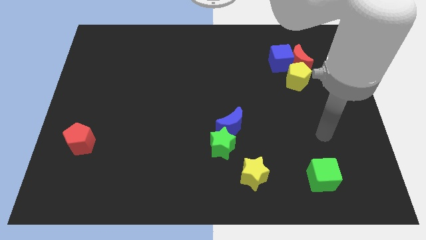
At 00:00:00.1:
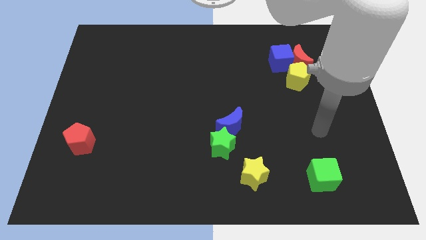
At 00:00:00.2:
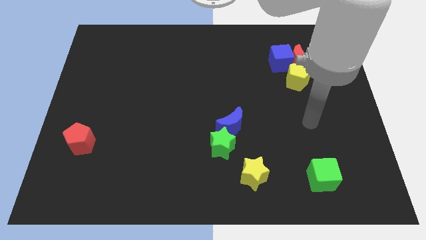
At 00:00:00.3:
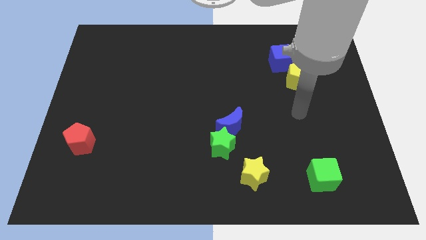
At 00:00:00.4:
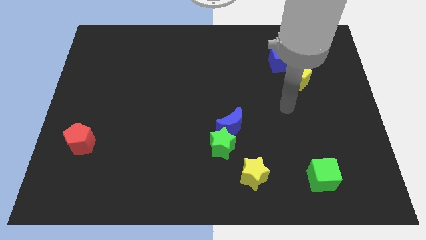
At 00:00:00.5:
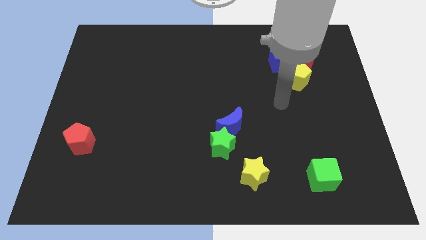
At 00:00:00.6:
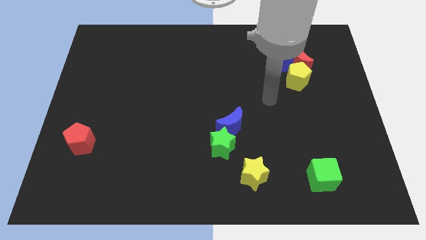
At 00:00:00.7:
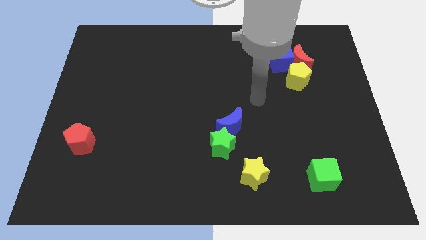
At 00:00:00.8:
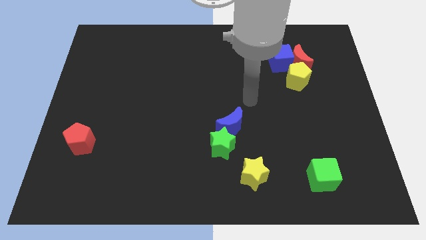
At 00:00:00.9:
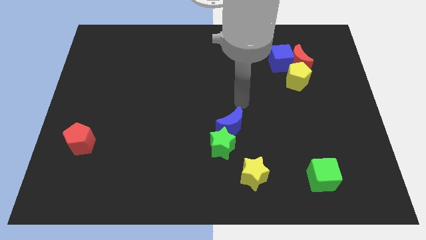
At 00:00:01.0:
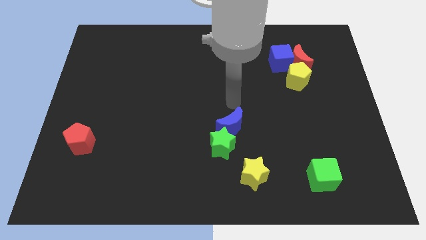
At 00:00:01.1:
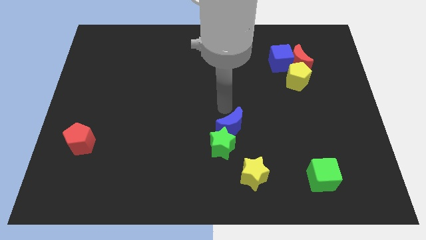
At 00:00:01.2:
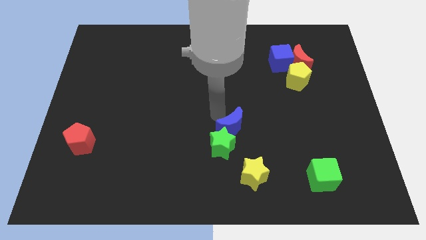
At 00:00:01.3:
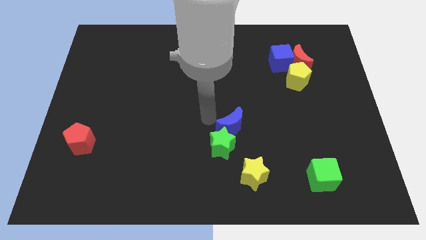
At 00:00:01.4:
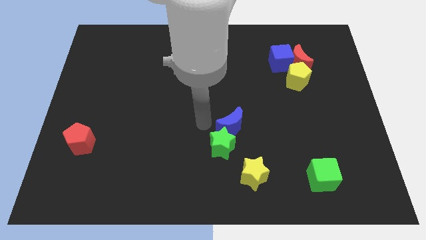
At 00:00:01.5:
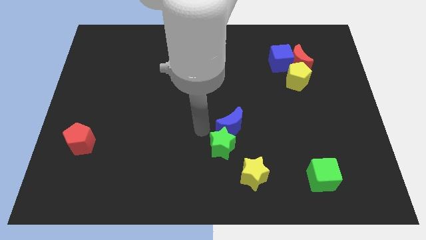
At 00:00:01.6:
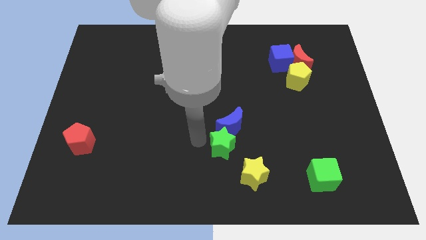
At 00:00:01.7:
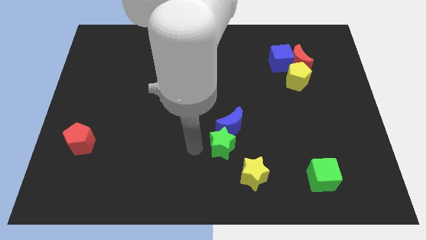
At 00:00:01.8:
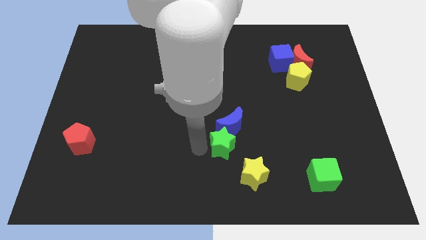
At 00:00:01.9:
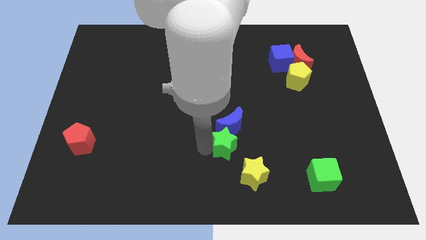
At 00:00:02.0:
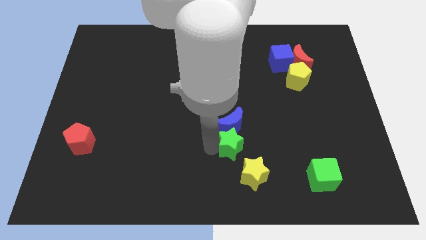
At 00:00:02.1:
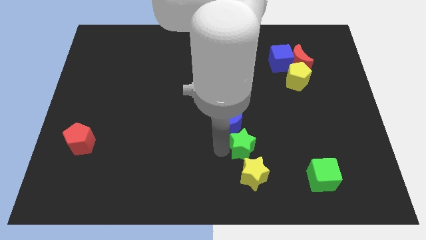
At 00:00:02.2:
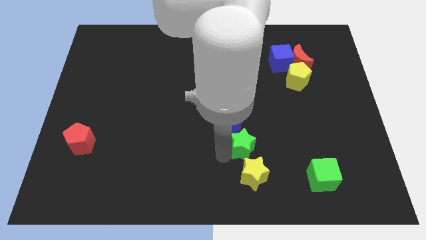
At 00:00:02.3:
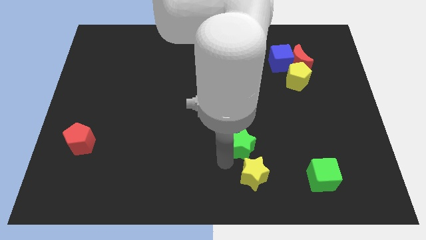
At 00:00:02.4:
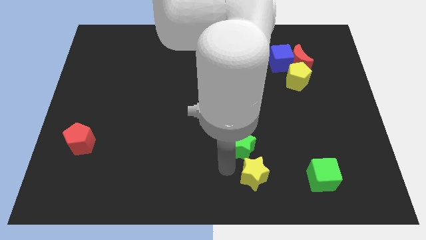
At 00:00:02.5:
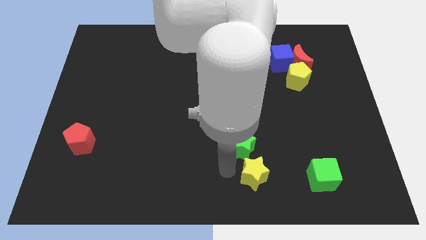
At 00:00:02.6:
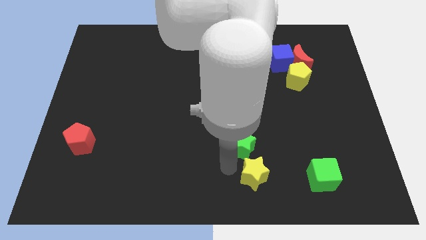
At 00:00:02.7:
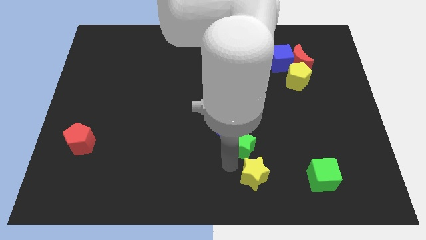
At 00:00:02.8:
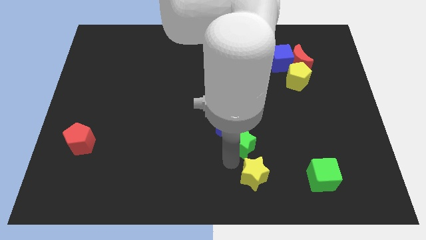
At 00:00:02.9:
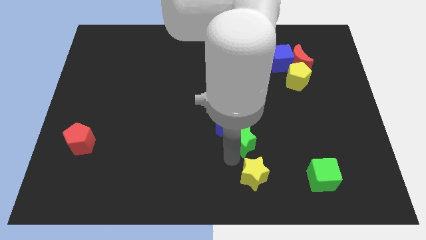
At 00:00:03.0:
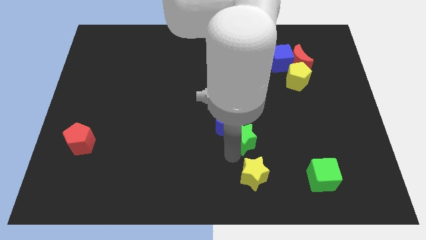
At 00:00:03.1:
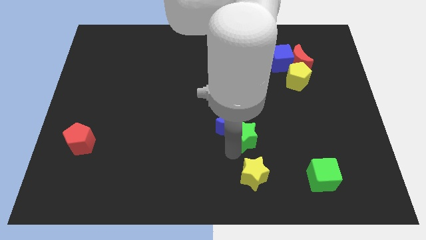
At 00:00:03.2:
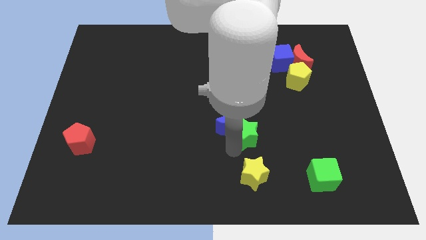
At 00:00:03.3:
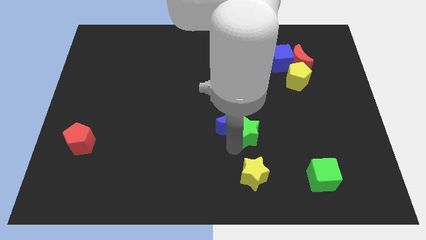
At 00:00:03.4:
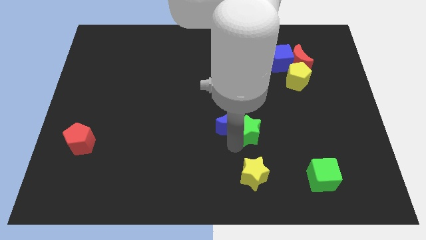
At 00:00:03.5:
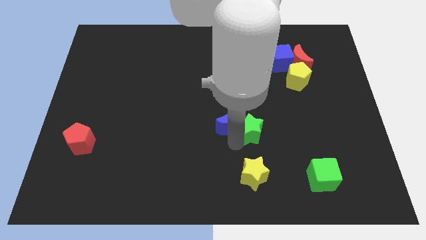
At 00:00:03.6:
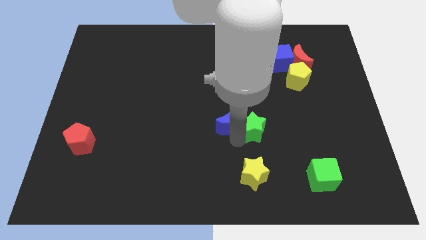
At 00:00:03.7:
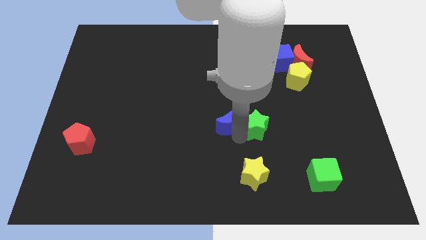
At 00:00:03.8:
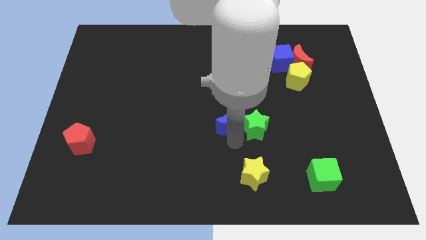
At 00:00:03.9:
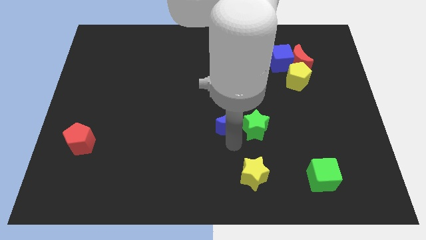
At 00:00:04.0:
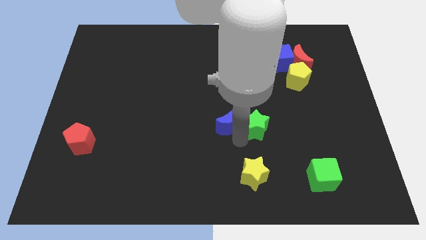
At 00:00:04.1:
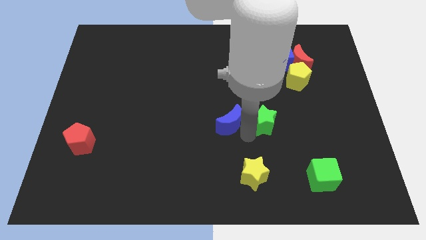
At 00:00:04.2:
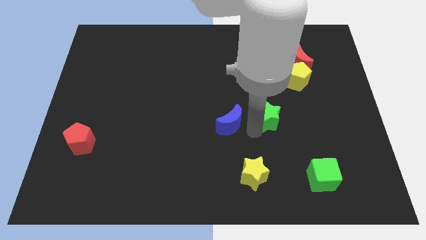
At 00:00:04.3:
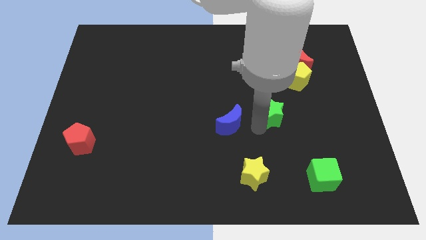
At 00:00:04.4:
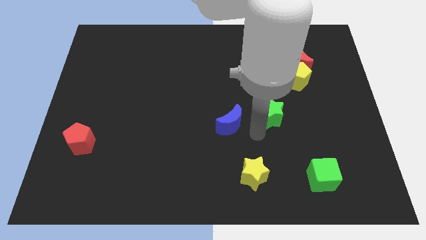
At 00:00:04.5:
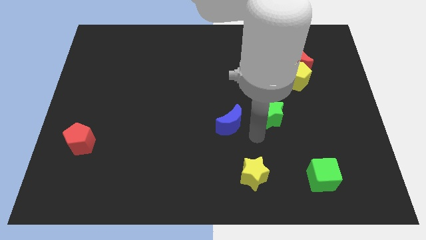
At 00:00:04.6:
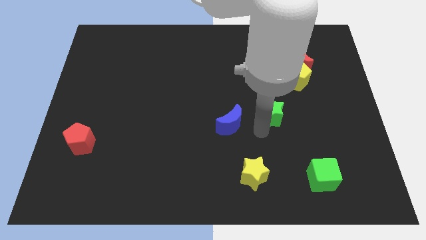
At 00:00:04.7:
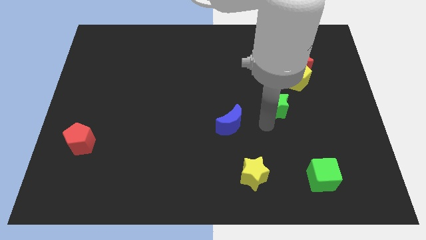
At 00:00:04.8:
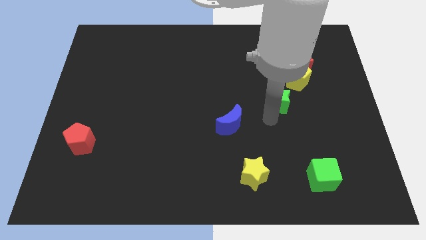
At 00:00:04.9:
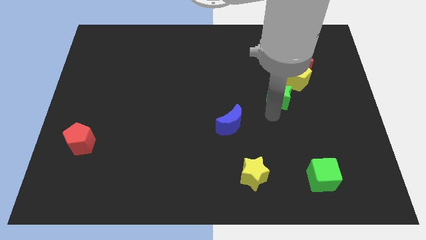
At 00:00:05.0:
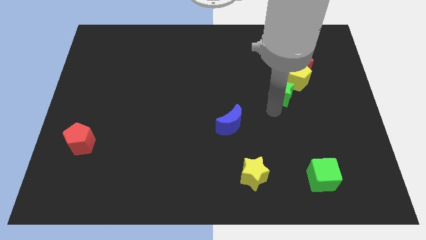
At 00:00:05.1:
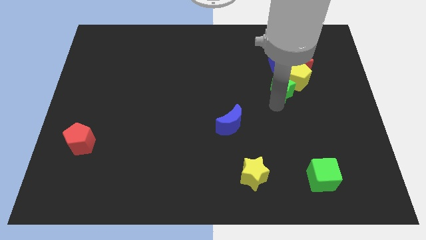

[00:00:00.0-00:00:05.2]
push the green star close to the yellow pentagon

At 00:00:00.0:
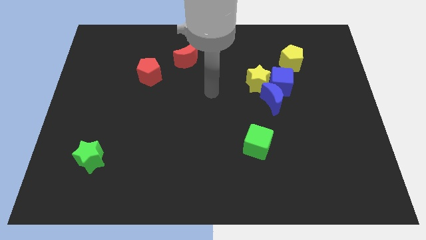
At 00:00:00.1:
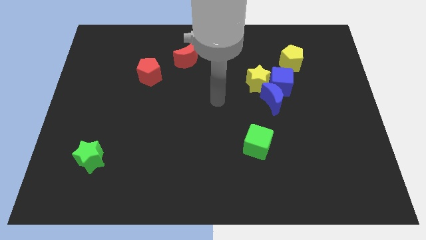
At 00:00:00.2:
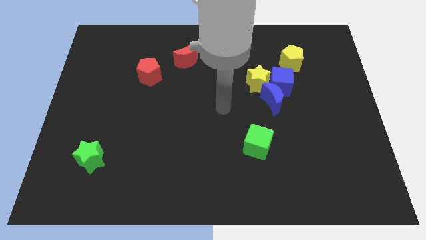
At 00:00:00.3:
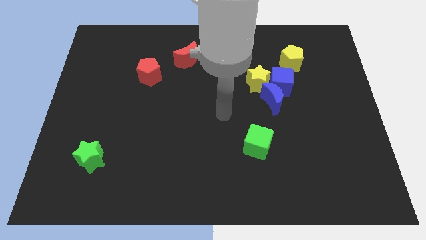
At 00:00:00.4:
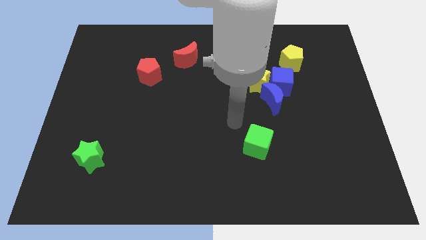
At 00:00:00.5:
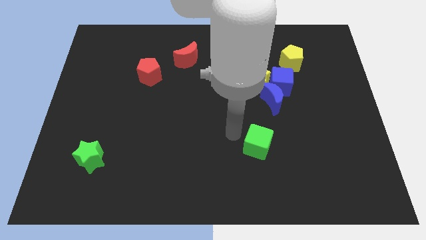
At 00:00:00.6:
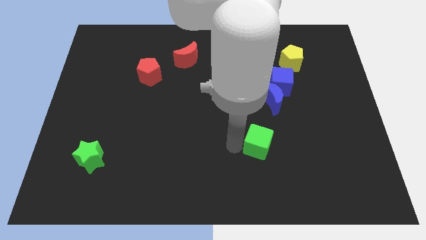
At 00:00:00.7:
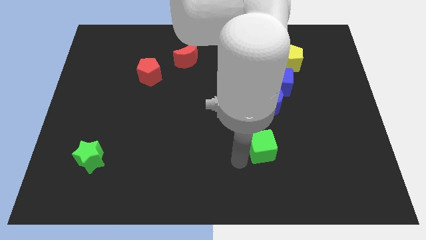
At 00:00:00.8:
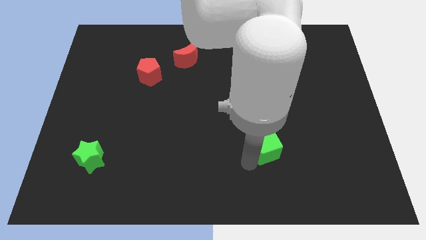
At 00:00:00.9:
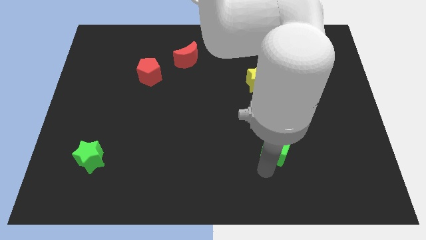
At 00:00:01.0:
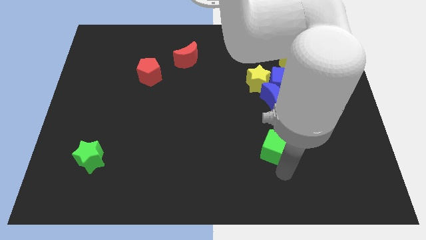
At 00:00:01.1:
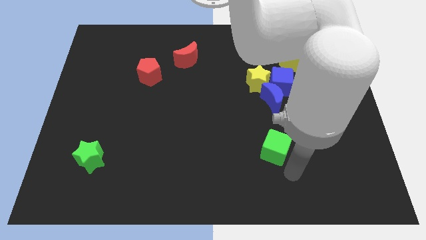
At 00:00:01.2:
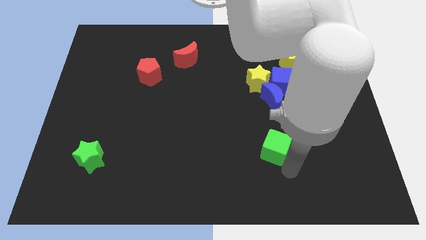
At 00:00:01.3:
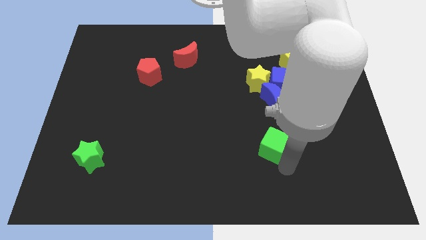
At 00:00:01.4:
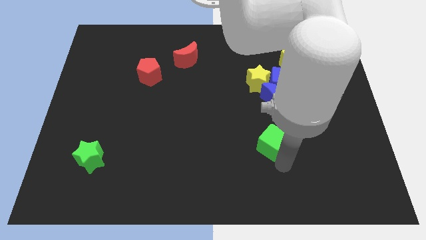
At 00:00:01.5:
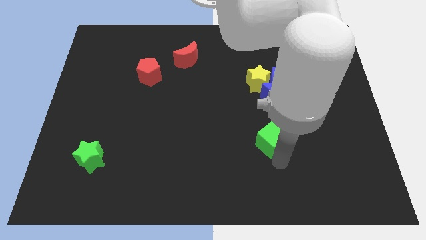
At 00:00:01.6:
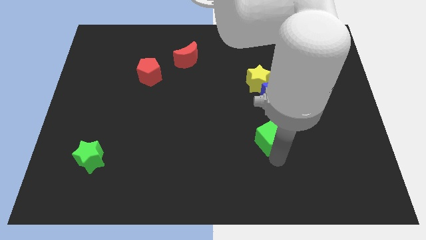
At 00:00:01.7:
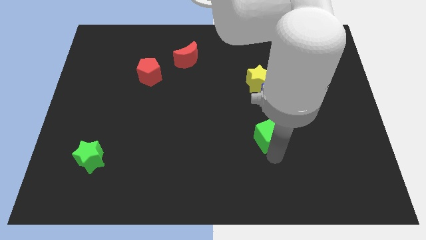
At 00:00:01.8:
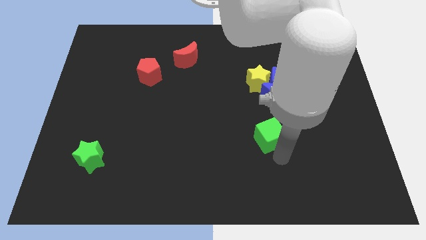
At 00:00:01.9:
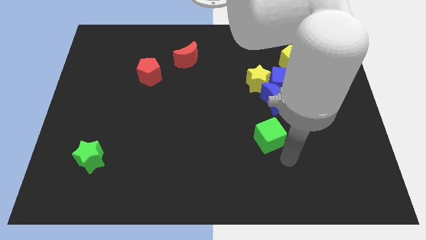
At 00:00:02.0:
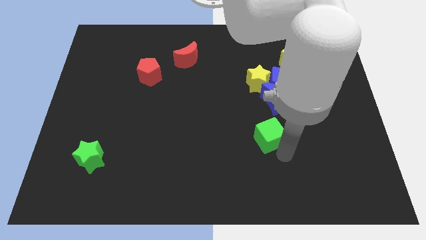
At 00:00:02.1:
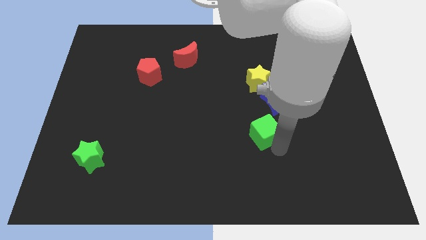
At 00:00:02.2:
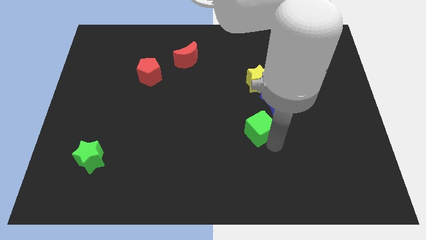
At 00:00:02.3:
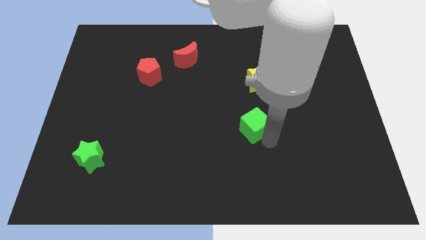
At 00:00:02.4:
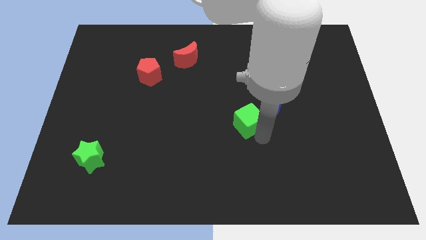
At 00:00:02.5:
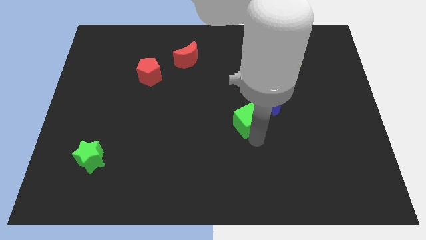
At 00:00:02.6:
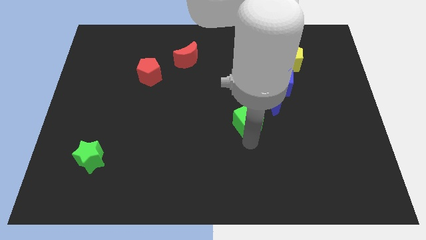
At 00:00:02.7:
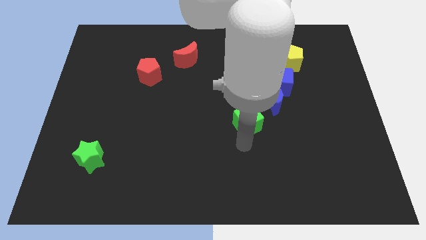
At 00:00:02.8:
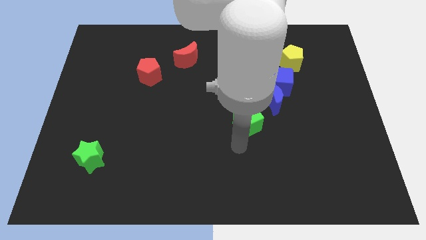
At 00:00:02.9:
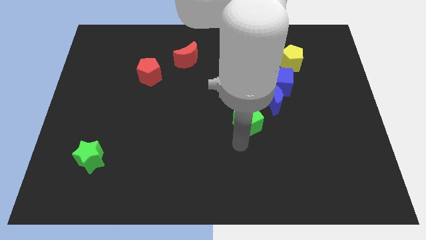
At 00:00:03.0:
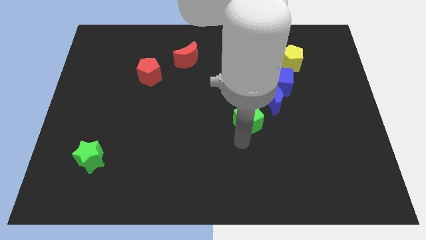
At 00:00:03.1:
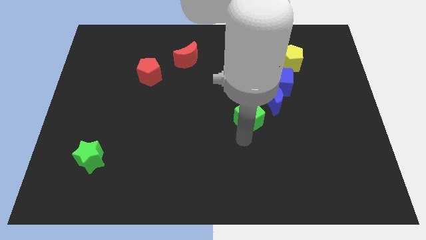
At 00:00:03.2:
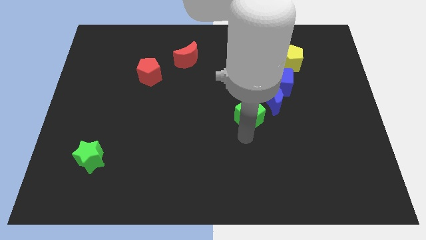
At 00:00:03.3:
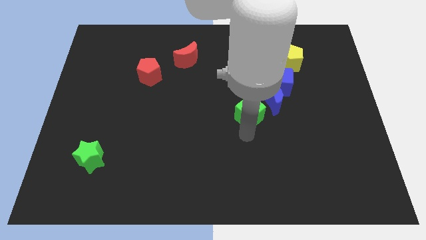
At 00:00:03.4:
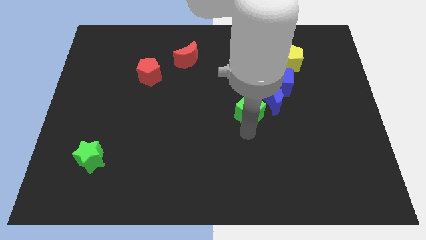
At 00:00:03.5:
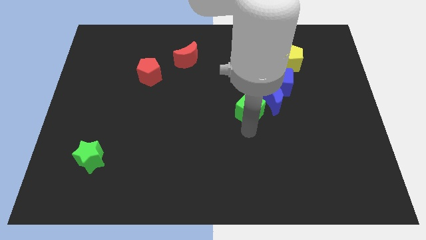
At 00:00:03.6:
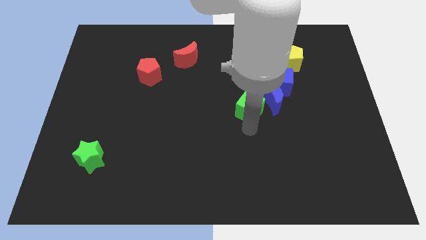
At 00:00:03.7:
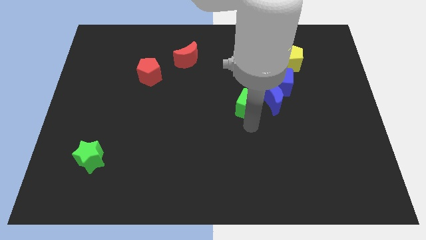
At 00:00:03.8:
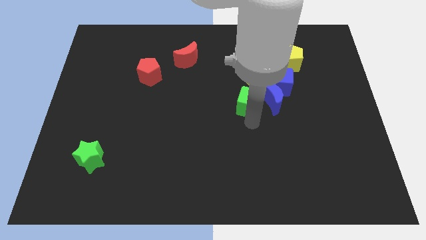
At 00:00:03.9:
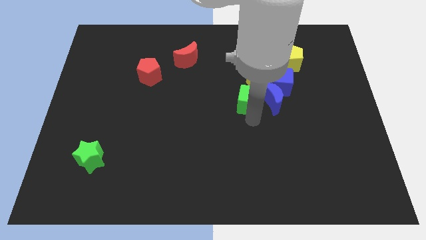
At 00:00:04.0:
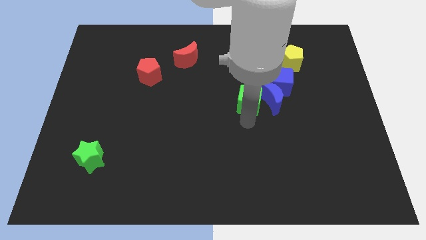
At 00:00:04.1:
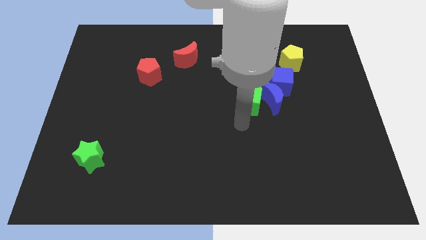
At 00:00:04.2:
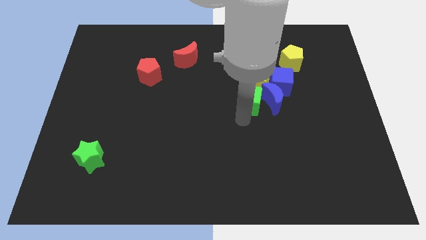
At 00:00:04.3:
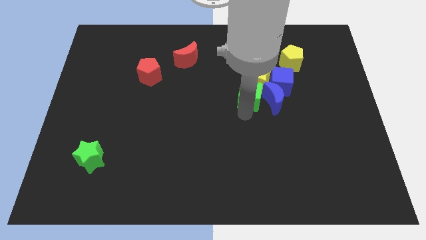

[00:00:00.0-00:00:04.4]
put the green cube towards the yellow star
